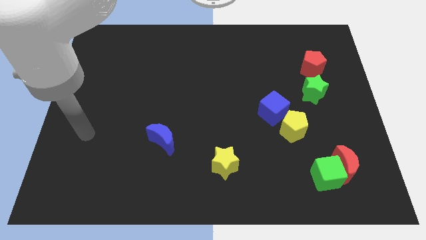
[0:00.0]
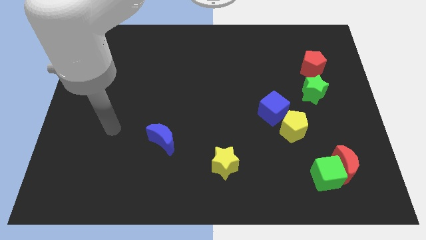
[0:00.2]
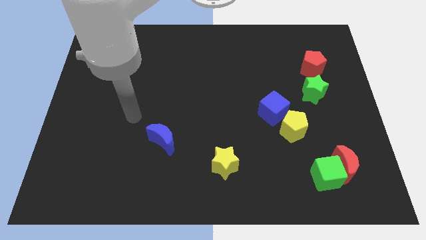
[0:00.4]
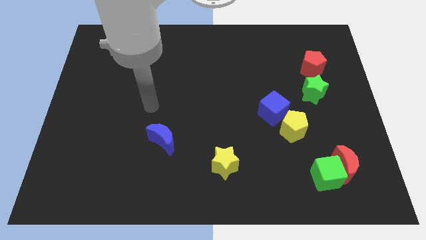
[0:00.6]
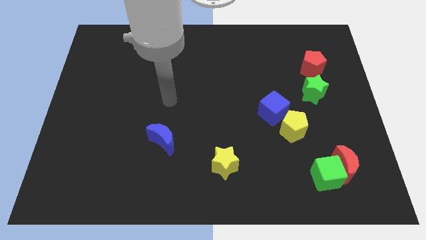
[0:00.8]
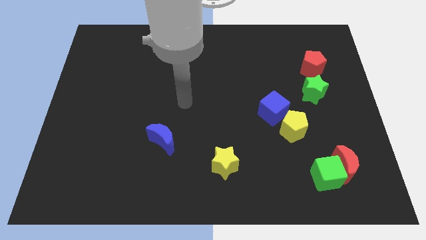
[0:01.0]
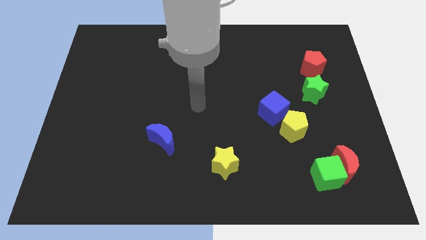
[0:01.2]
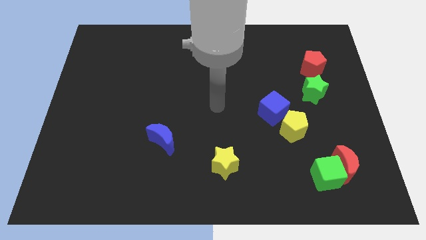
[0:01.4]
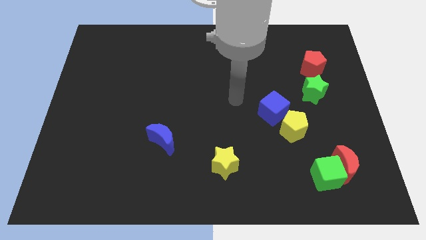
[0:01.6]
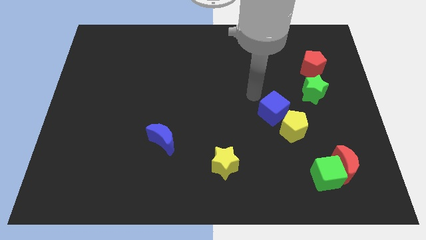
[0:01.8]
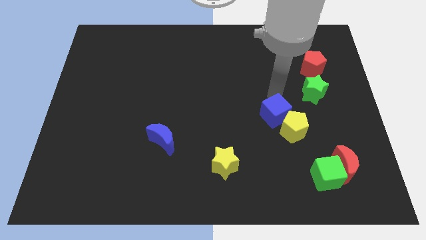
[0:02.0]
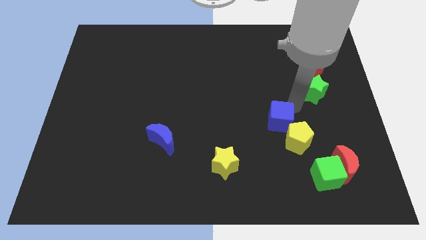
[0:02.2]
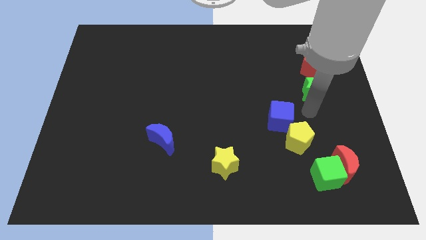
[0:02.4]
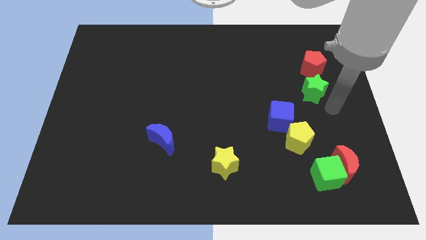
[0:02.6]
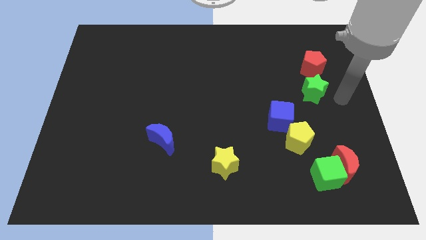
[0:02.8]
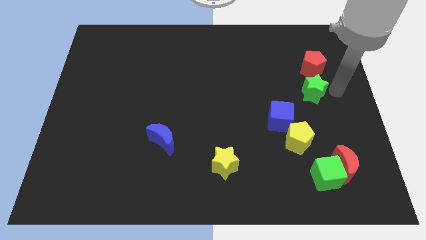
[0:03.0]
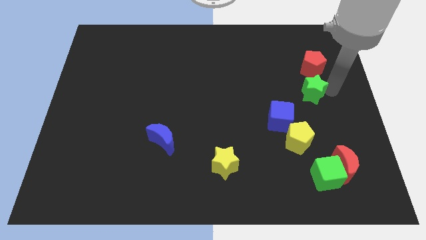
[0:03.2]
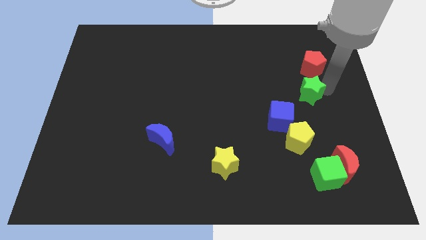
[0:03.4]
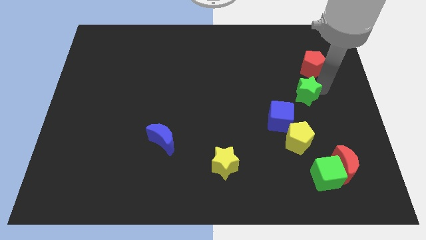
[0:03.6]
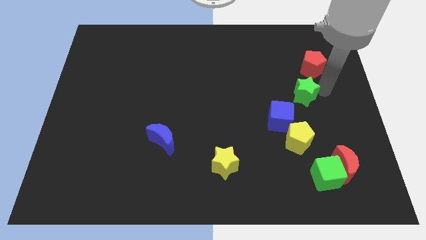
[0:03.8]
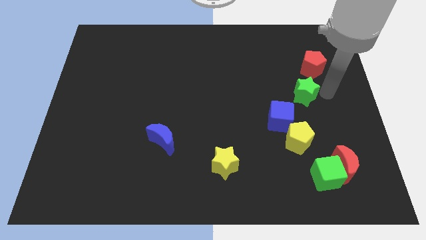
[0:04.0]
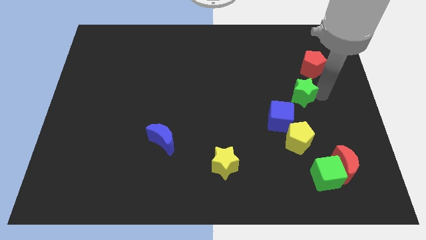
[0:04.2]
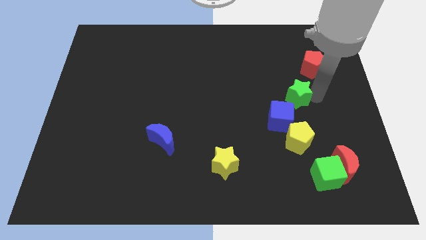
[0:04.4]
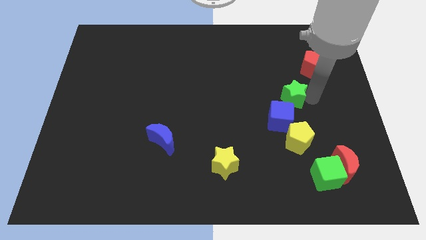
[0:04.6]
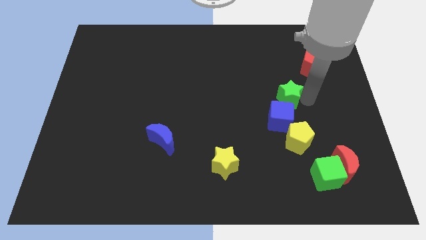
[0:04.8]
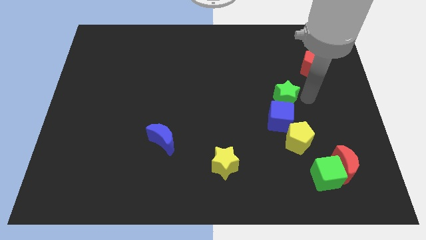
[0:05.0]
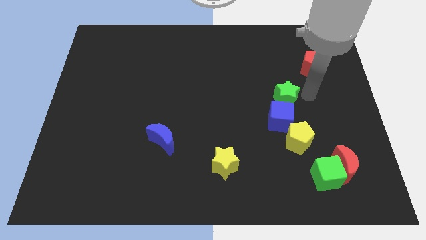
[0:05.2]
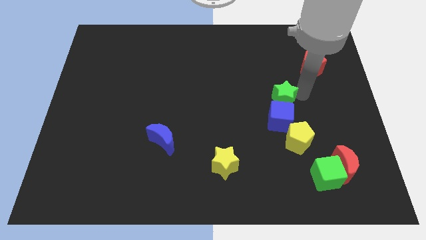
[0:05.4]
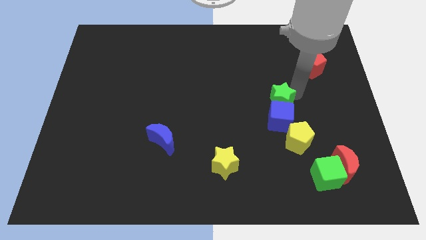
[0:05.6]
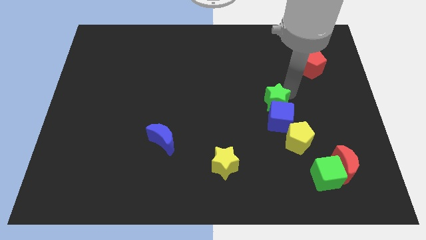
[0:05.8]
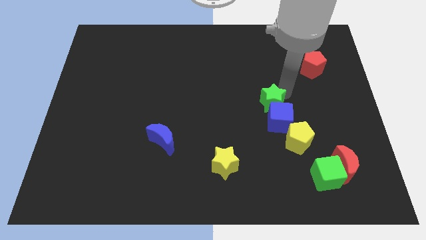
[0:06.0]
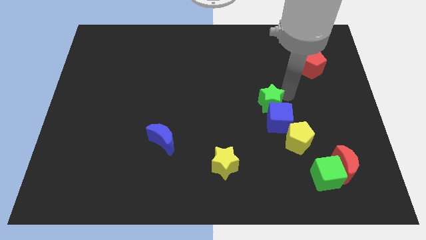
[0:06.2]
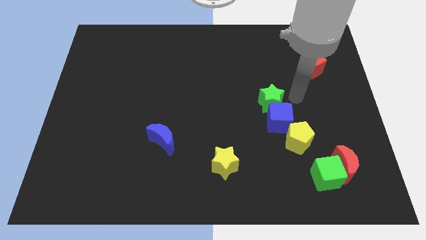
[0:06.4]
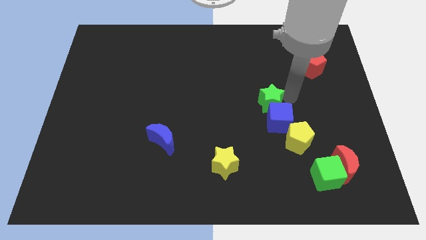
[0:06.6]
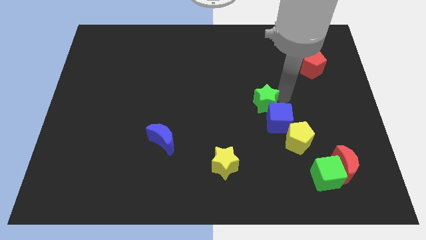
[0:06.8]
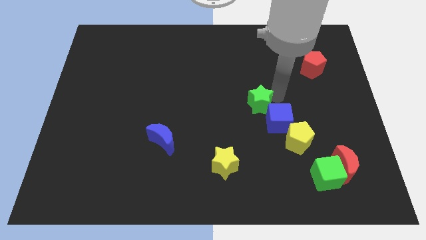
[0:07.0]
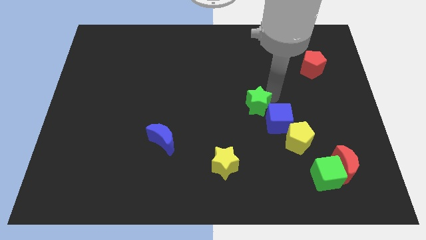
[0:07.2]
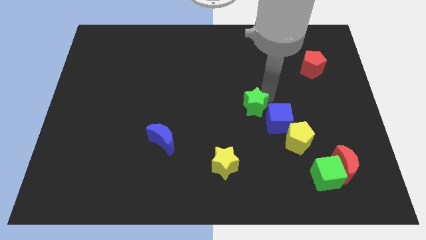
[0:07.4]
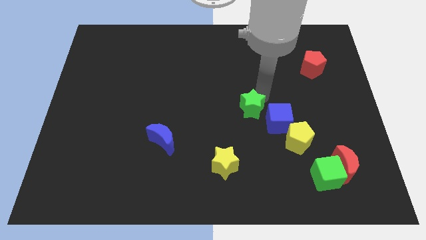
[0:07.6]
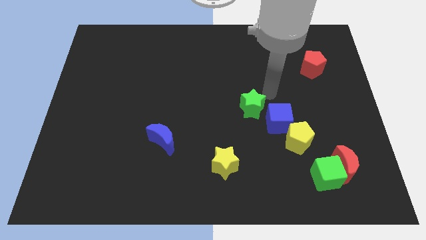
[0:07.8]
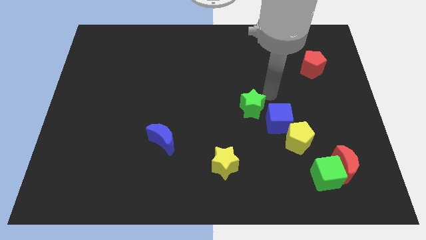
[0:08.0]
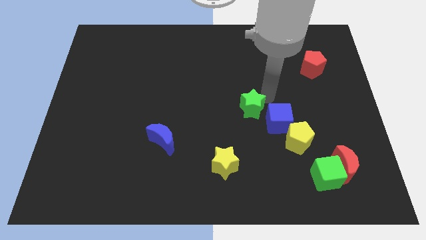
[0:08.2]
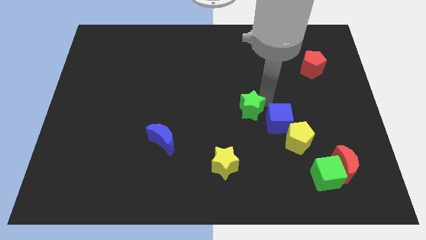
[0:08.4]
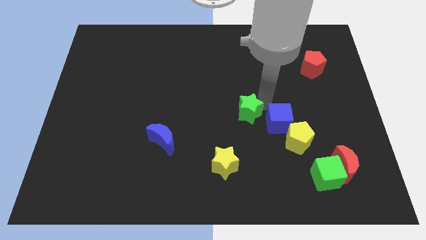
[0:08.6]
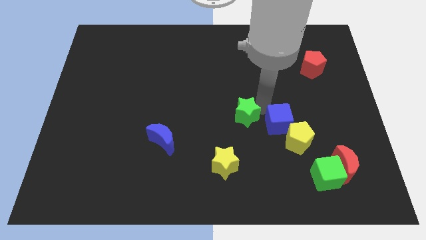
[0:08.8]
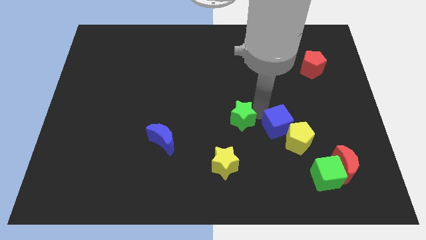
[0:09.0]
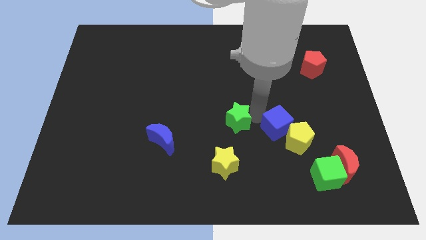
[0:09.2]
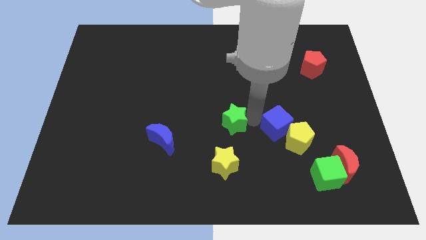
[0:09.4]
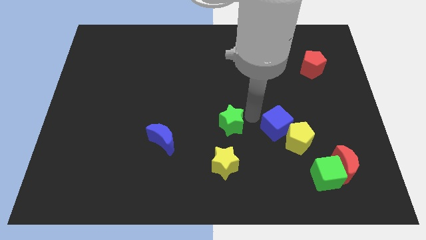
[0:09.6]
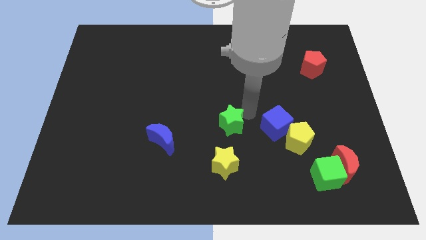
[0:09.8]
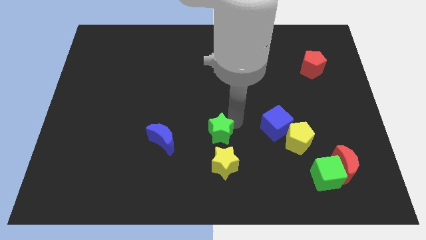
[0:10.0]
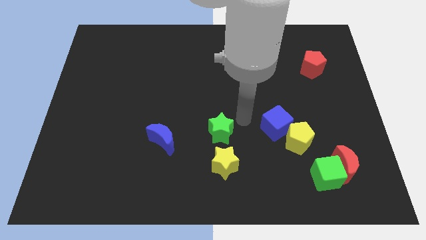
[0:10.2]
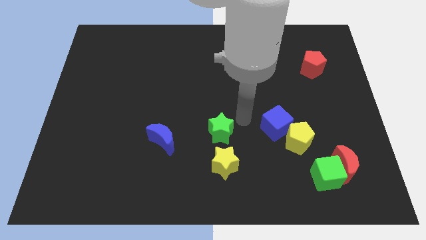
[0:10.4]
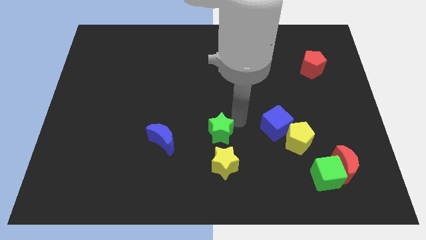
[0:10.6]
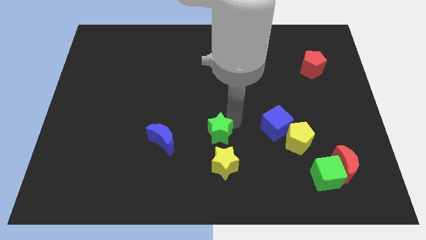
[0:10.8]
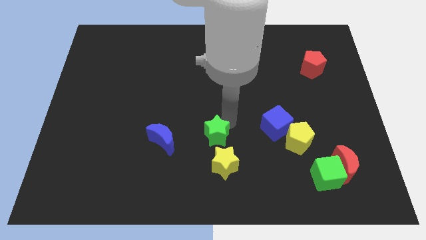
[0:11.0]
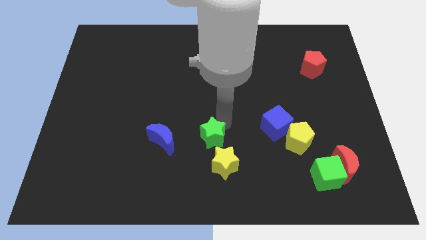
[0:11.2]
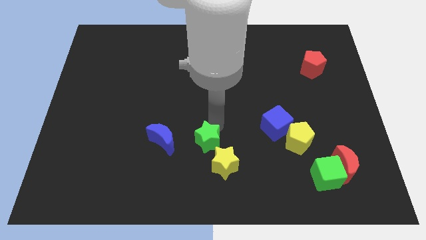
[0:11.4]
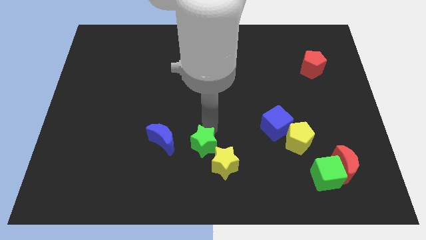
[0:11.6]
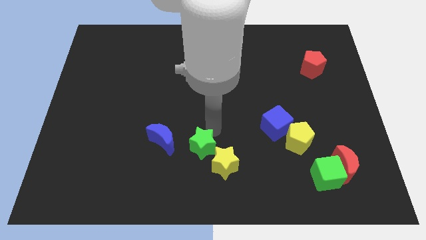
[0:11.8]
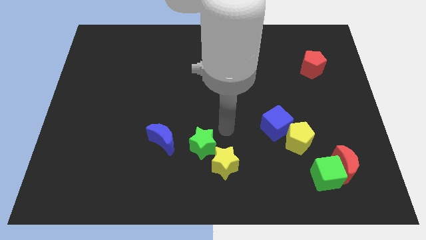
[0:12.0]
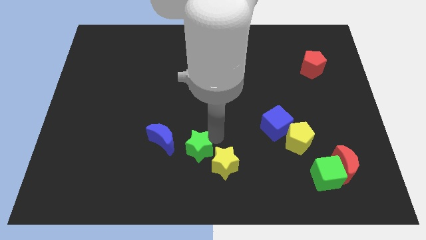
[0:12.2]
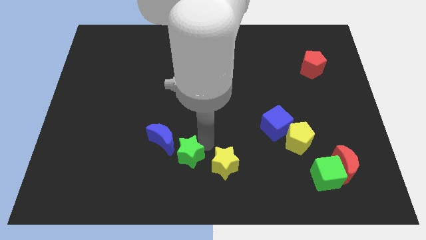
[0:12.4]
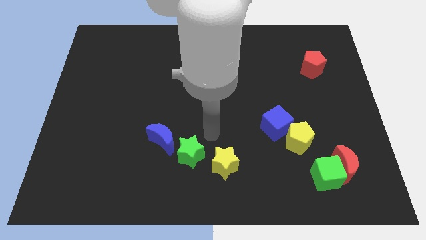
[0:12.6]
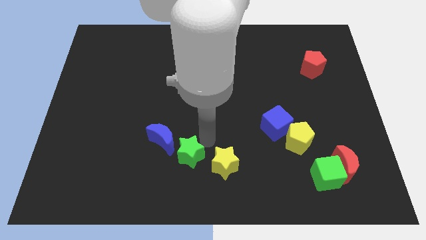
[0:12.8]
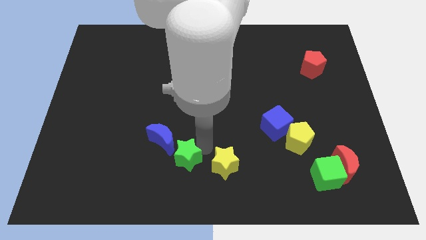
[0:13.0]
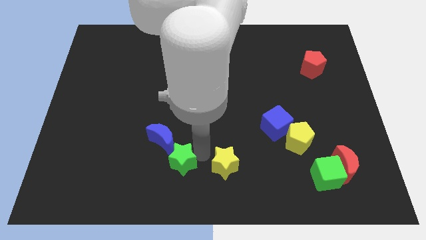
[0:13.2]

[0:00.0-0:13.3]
slide the green star below the blue moon
